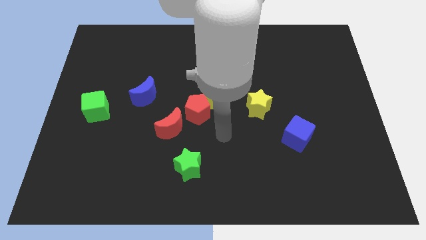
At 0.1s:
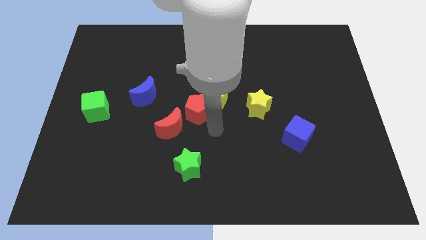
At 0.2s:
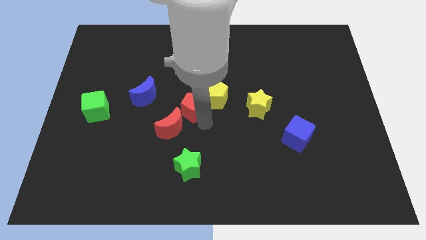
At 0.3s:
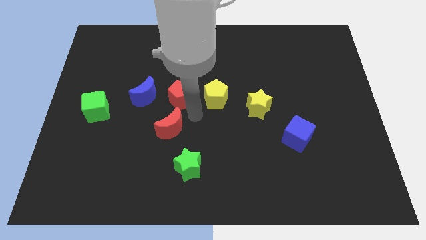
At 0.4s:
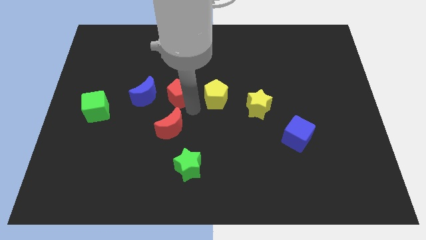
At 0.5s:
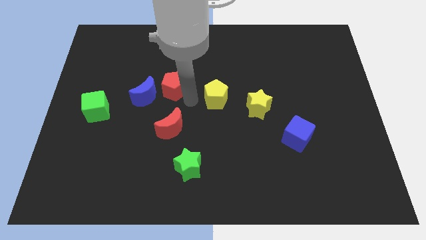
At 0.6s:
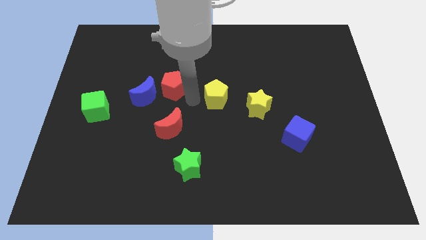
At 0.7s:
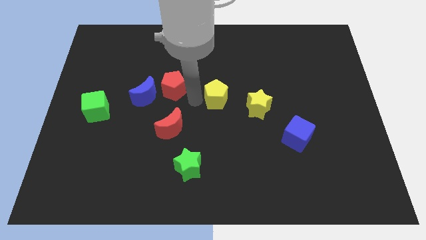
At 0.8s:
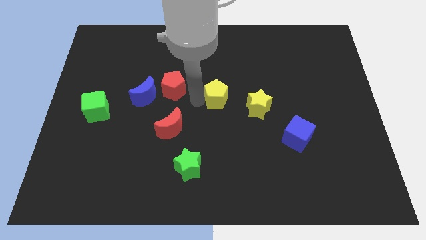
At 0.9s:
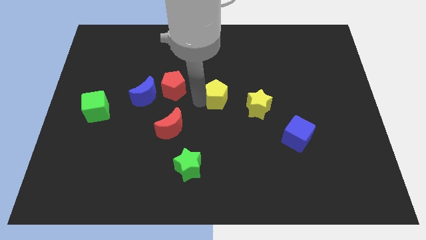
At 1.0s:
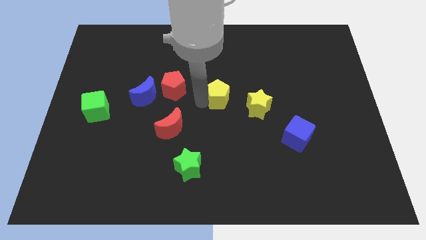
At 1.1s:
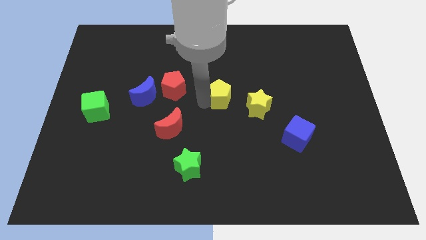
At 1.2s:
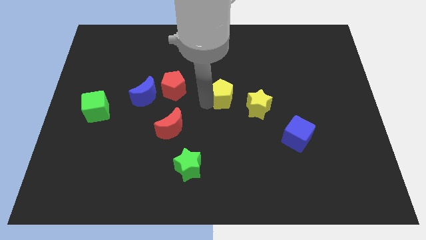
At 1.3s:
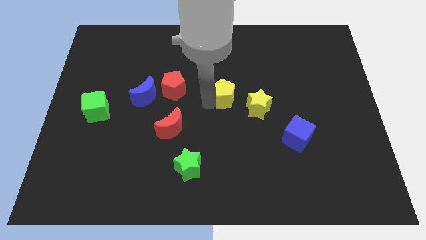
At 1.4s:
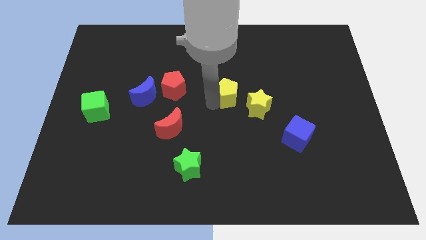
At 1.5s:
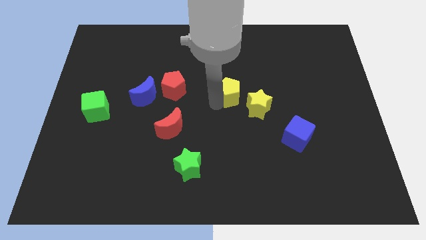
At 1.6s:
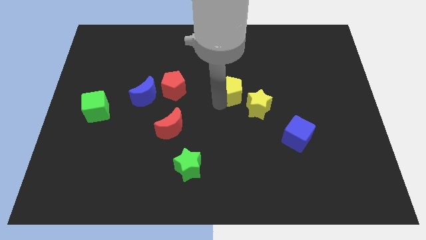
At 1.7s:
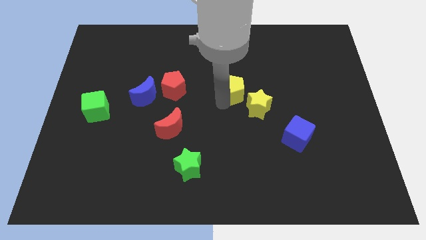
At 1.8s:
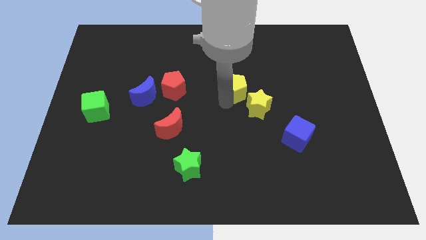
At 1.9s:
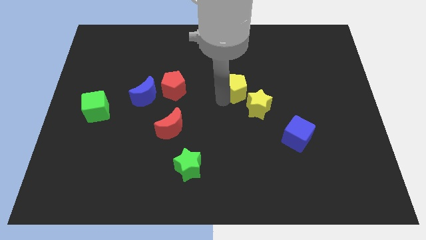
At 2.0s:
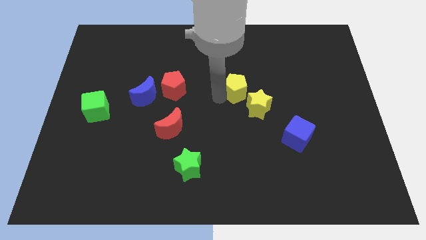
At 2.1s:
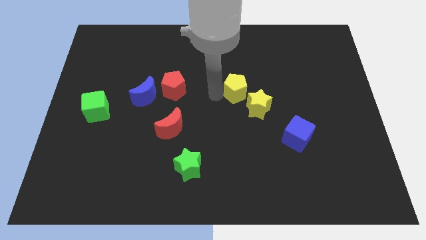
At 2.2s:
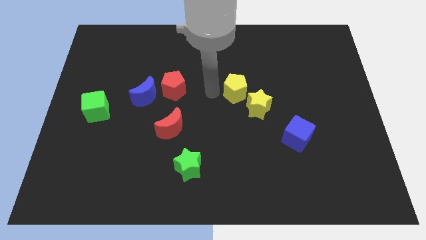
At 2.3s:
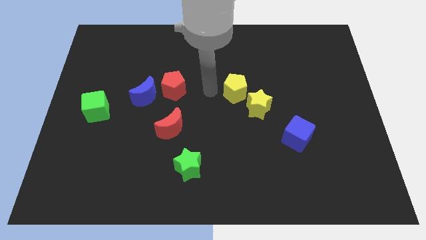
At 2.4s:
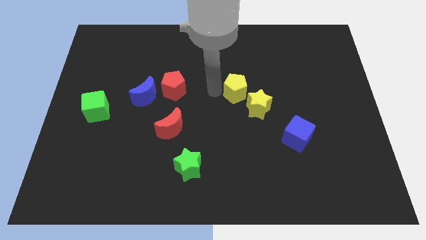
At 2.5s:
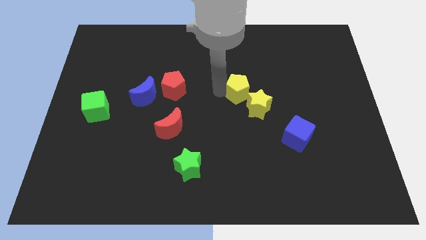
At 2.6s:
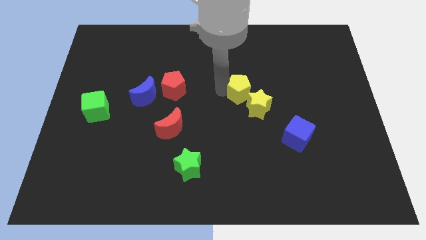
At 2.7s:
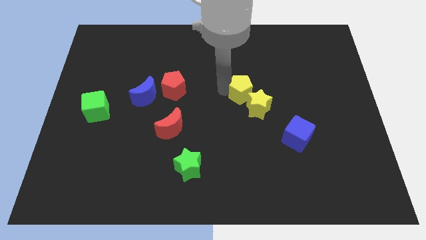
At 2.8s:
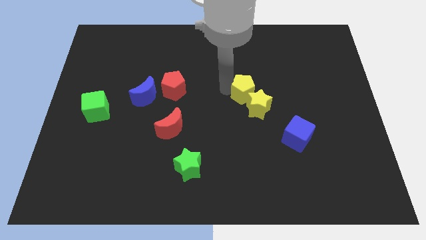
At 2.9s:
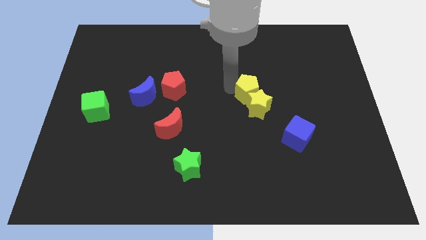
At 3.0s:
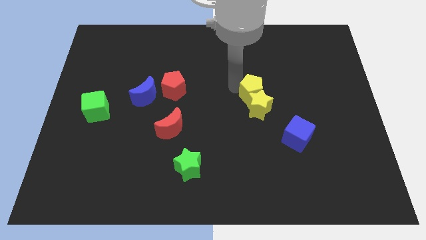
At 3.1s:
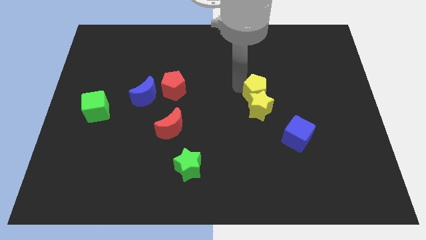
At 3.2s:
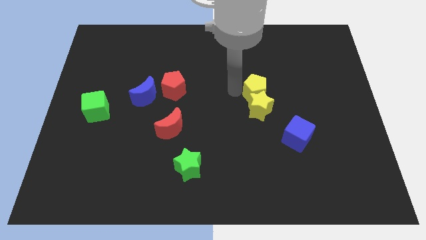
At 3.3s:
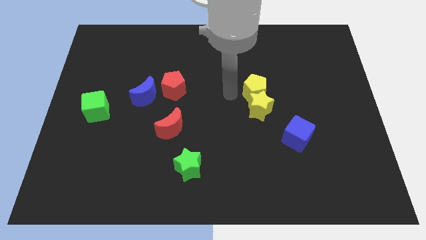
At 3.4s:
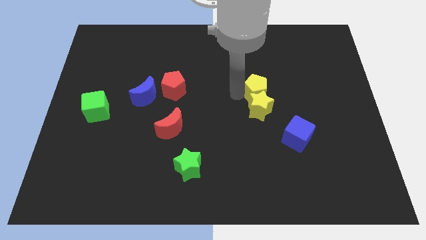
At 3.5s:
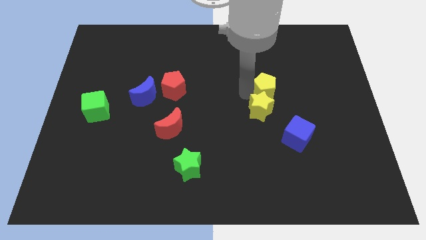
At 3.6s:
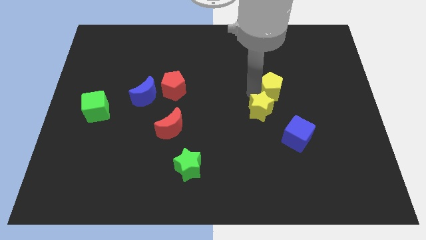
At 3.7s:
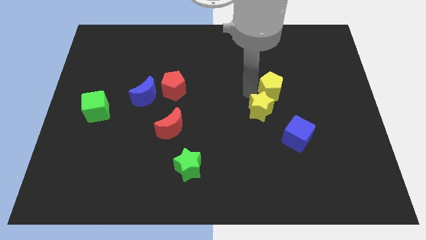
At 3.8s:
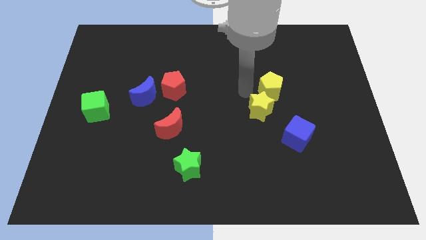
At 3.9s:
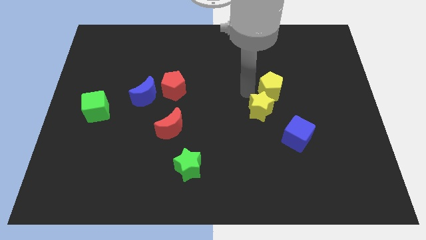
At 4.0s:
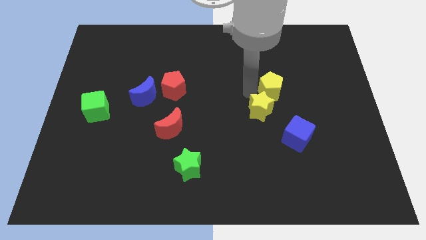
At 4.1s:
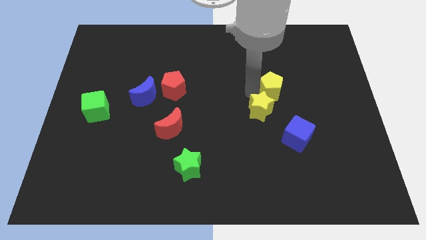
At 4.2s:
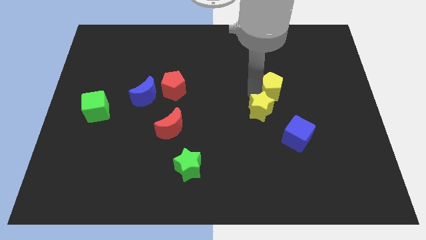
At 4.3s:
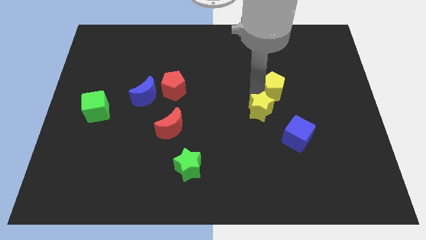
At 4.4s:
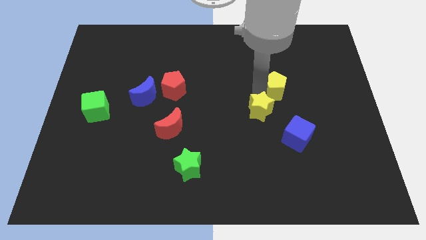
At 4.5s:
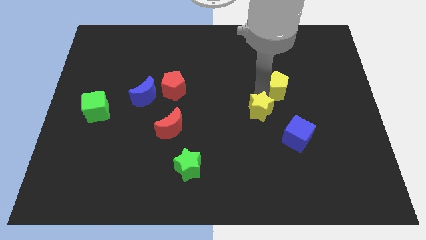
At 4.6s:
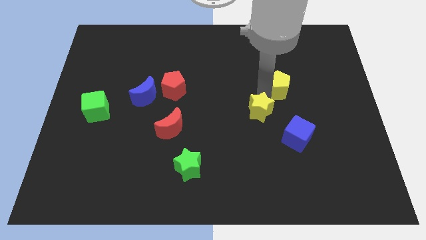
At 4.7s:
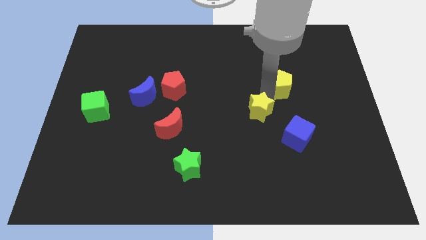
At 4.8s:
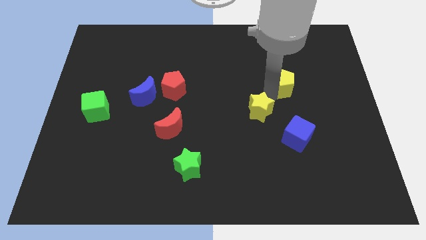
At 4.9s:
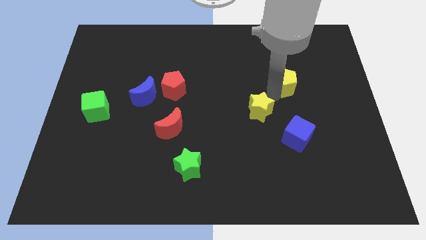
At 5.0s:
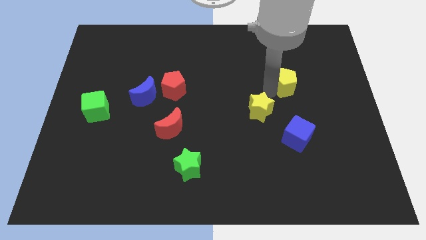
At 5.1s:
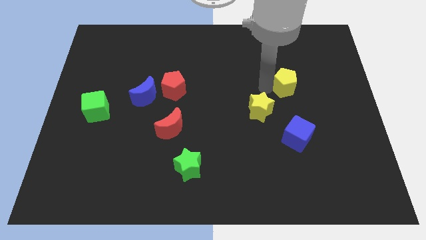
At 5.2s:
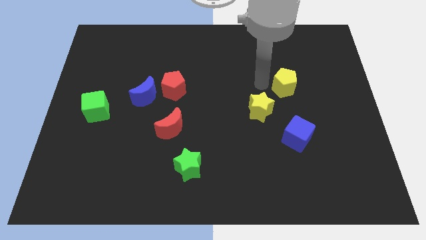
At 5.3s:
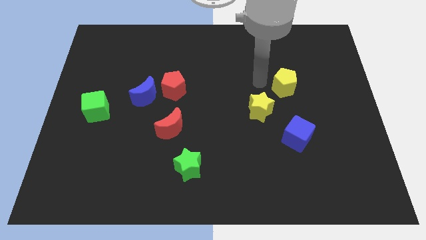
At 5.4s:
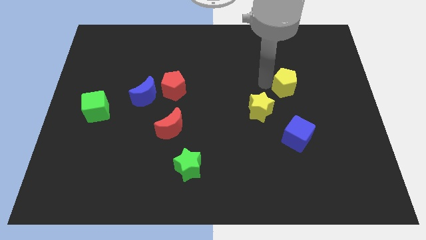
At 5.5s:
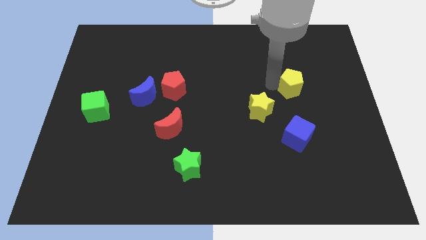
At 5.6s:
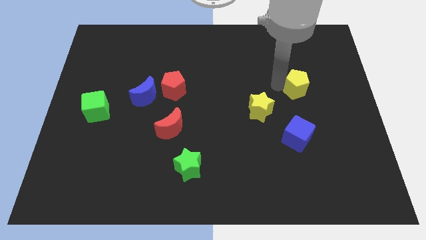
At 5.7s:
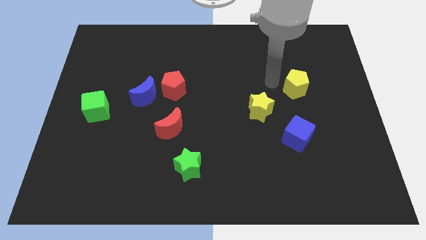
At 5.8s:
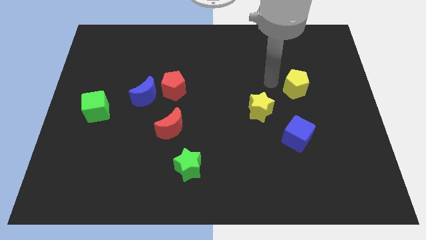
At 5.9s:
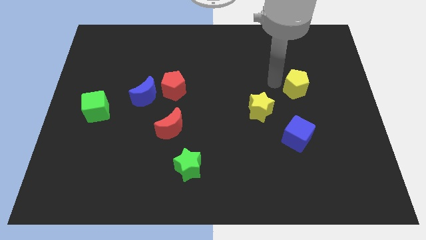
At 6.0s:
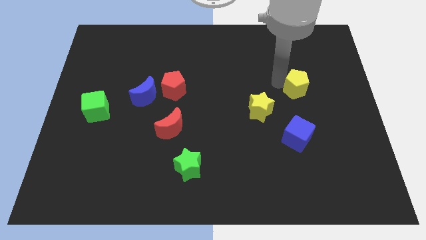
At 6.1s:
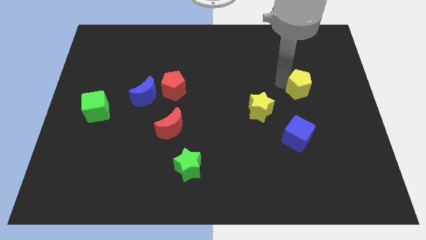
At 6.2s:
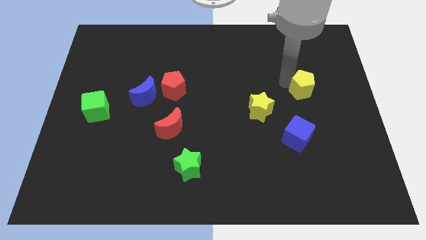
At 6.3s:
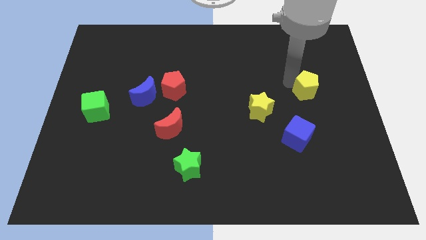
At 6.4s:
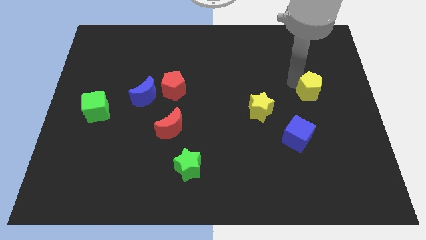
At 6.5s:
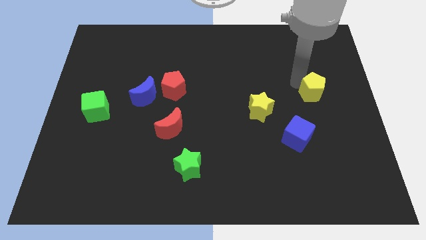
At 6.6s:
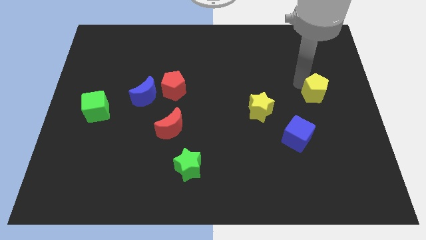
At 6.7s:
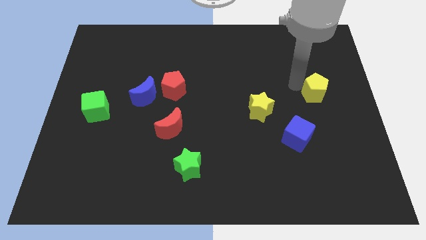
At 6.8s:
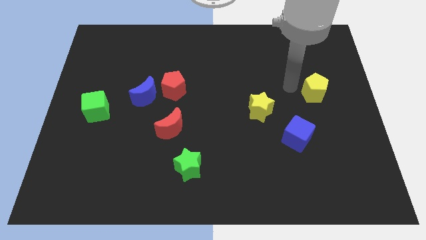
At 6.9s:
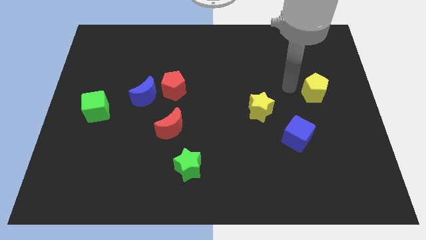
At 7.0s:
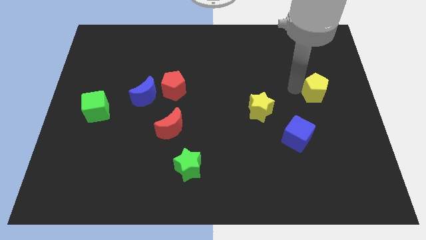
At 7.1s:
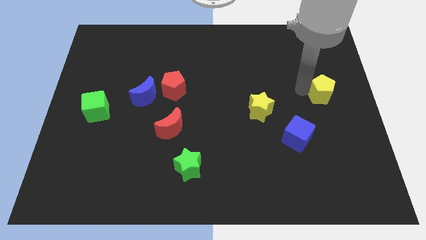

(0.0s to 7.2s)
slide the yellow pentagon to the right side of the board
